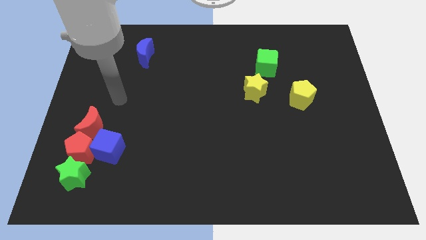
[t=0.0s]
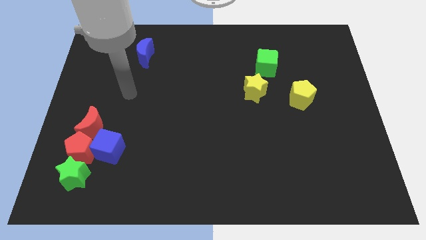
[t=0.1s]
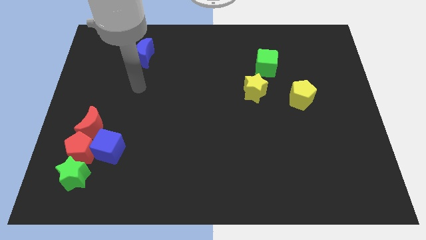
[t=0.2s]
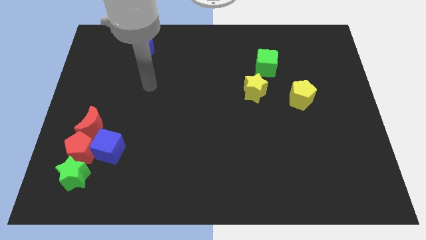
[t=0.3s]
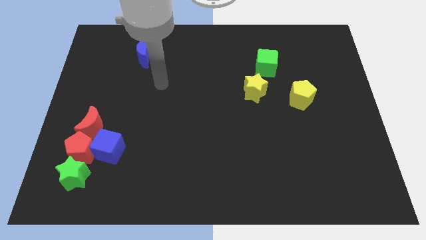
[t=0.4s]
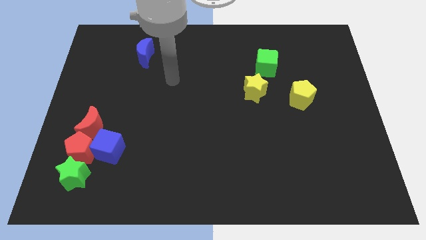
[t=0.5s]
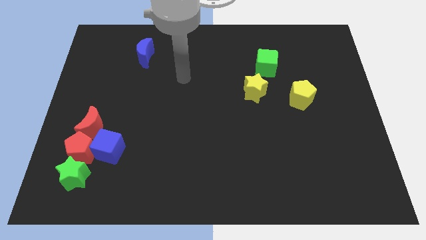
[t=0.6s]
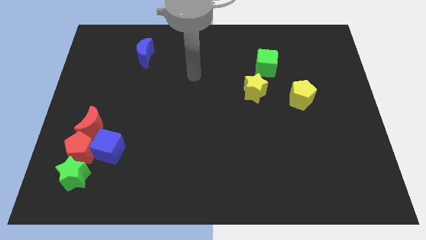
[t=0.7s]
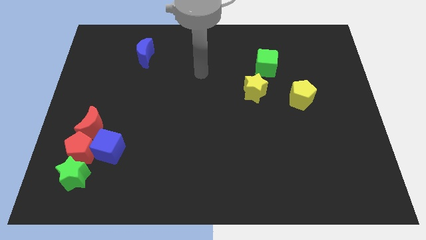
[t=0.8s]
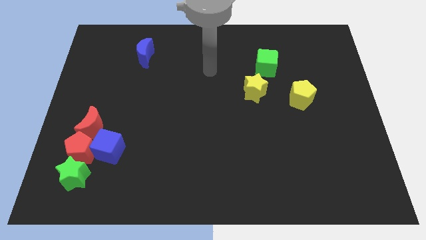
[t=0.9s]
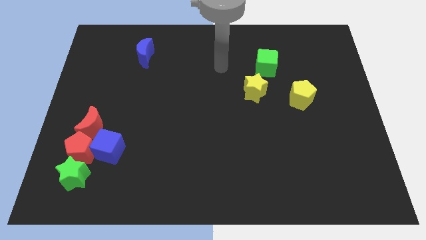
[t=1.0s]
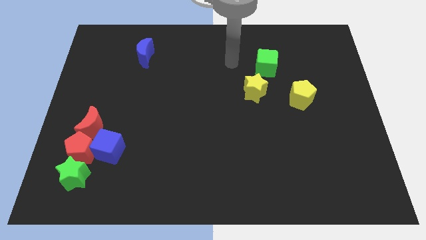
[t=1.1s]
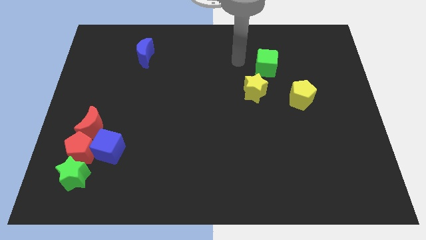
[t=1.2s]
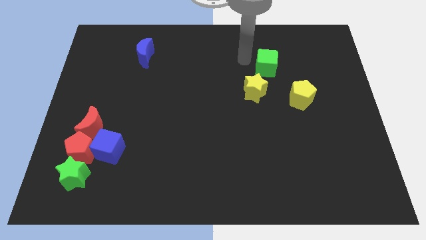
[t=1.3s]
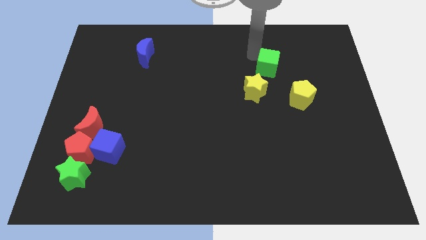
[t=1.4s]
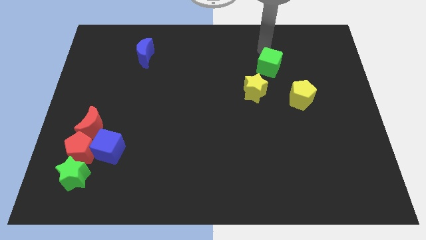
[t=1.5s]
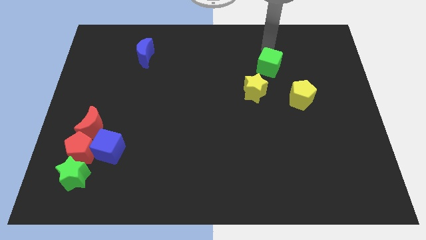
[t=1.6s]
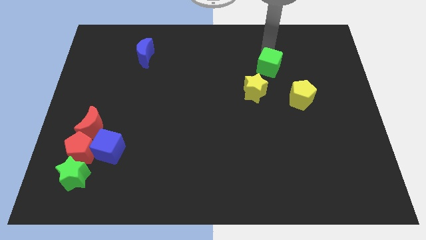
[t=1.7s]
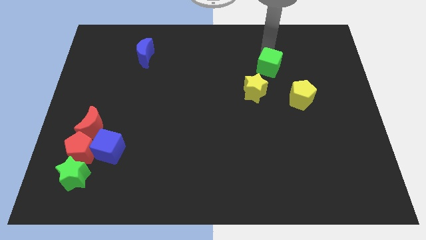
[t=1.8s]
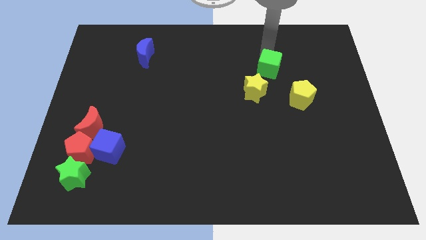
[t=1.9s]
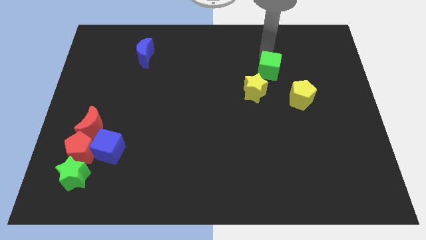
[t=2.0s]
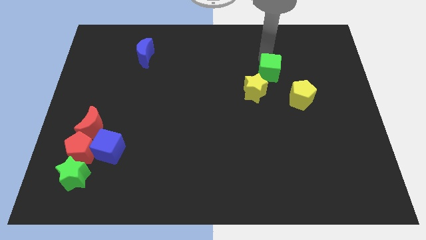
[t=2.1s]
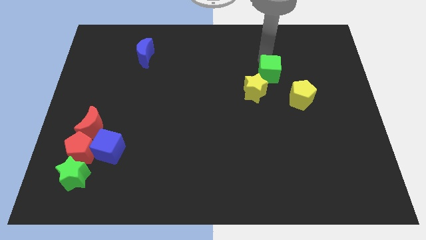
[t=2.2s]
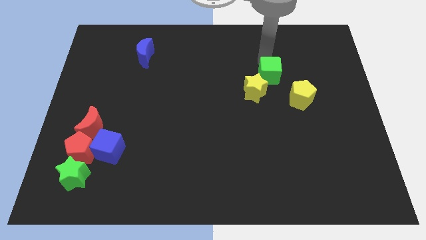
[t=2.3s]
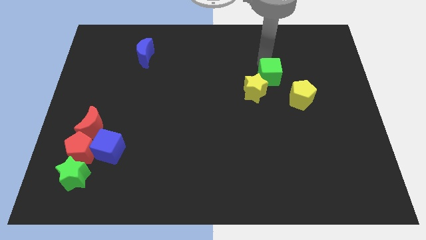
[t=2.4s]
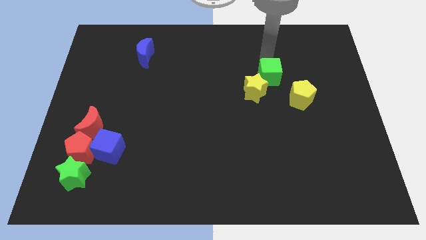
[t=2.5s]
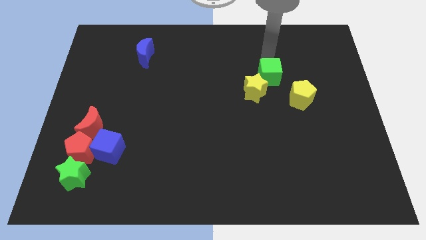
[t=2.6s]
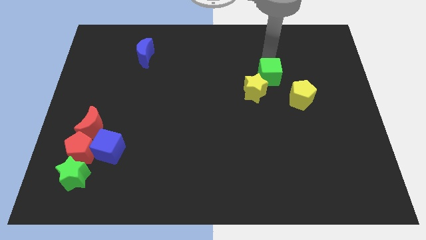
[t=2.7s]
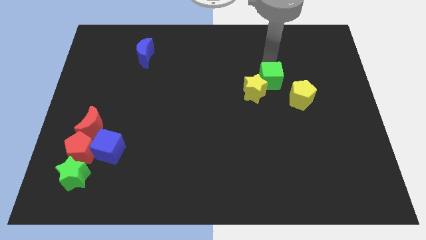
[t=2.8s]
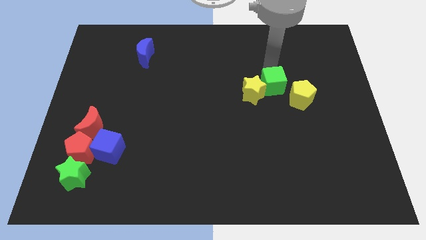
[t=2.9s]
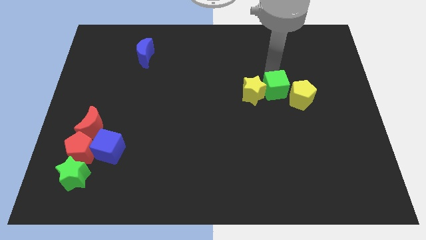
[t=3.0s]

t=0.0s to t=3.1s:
slide the green cube down a bit

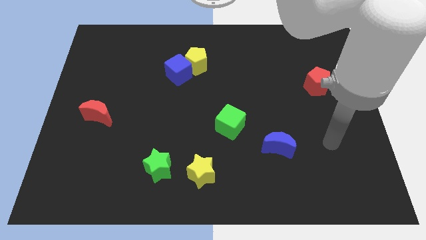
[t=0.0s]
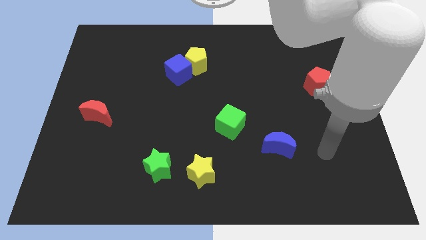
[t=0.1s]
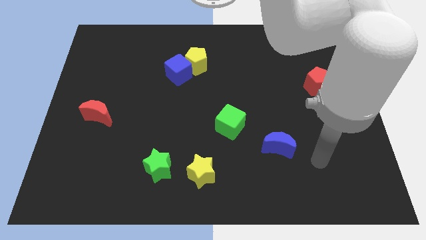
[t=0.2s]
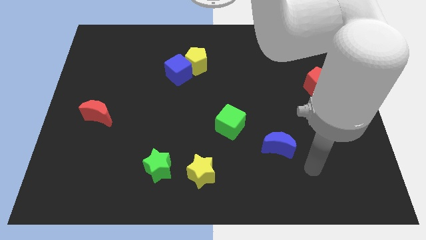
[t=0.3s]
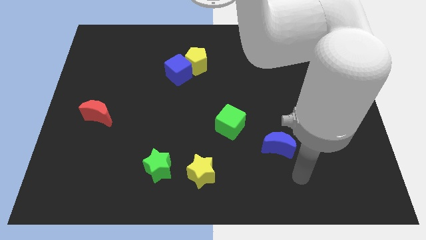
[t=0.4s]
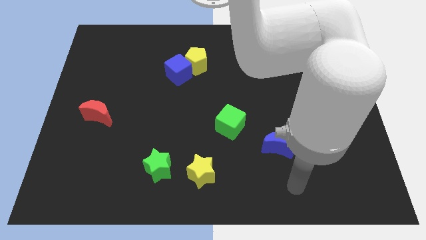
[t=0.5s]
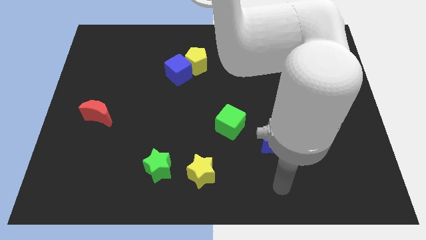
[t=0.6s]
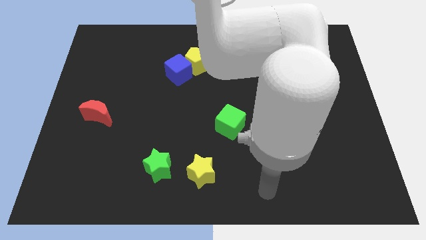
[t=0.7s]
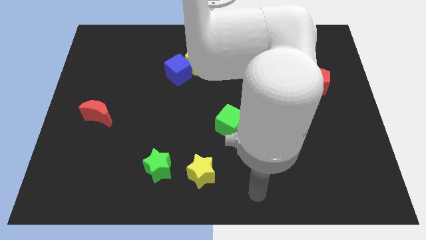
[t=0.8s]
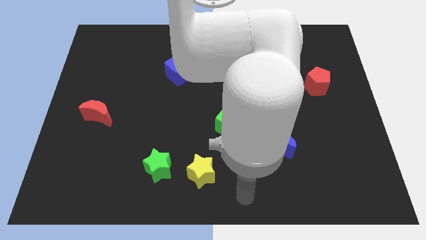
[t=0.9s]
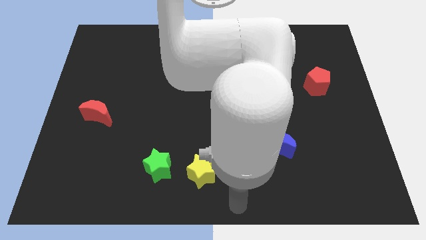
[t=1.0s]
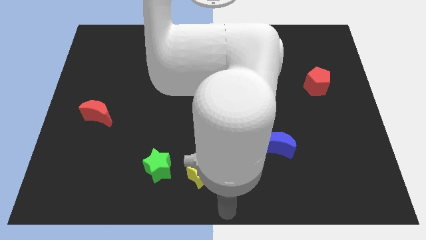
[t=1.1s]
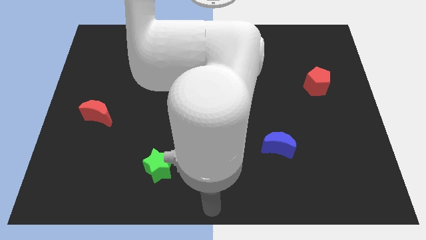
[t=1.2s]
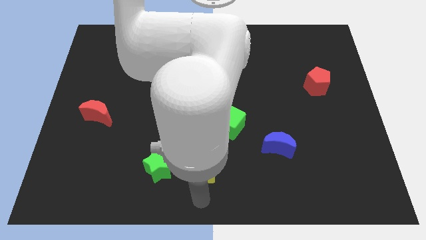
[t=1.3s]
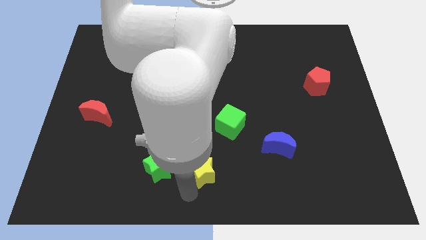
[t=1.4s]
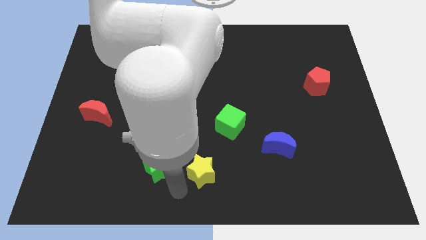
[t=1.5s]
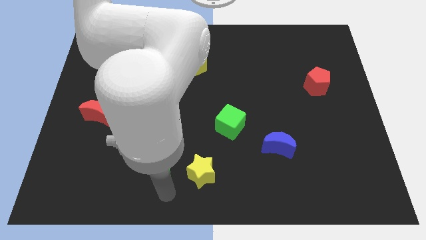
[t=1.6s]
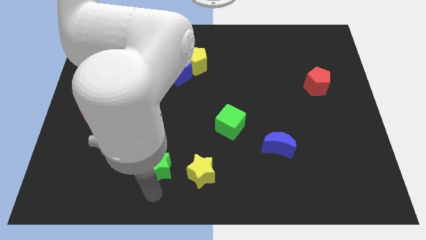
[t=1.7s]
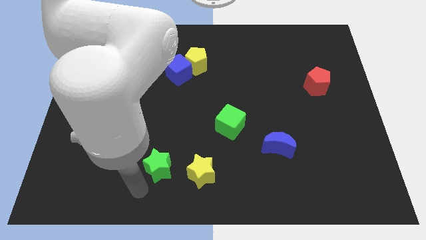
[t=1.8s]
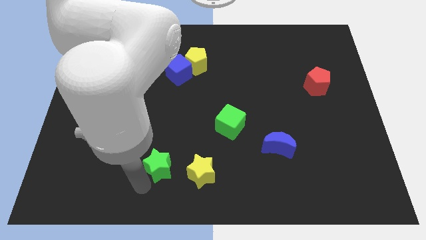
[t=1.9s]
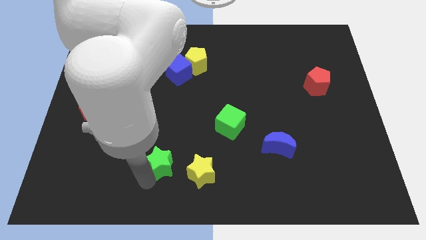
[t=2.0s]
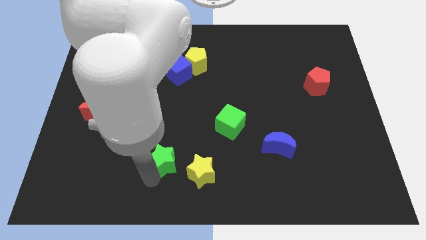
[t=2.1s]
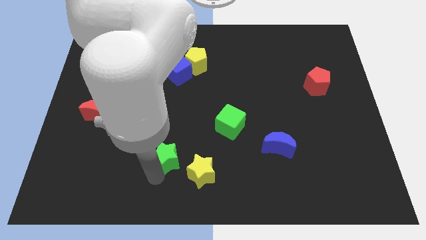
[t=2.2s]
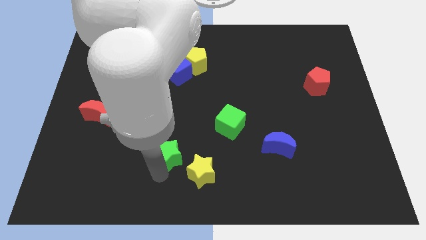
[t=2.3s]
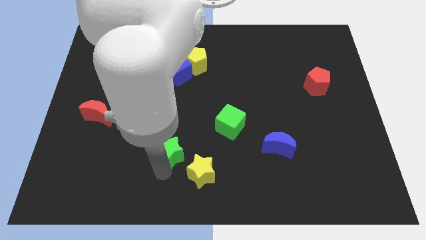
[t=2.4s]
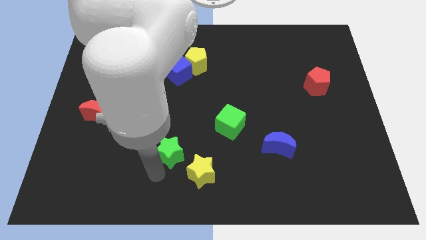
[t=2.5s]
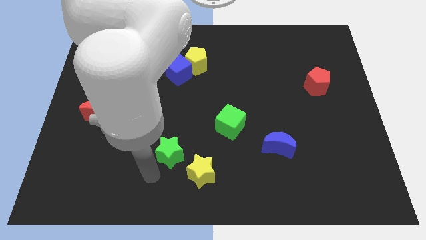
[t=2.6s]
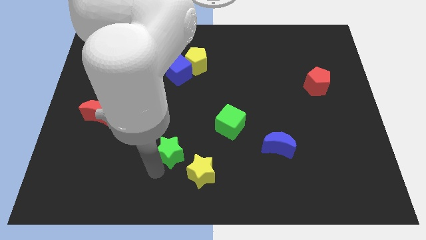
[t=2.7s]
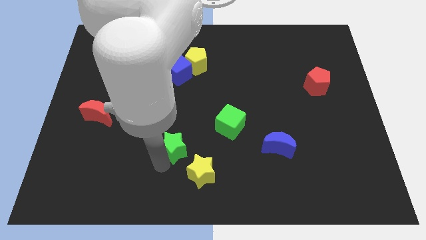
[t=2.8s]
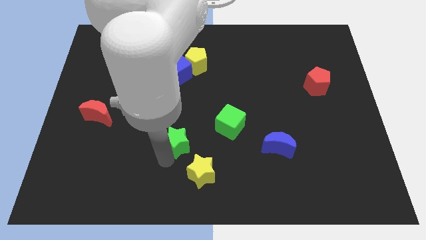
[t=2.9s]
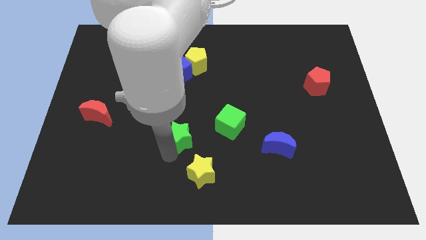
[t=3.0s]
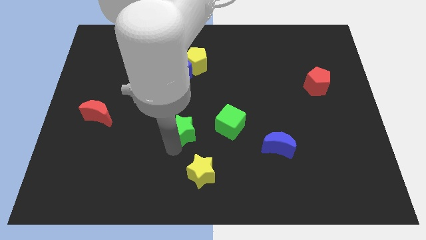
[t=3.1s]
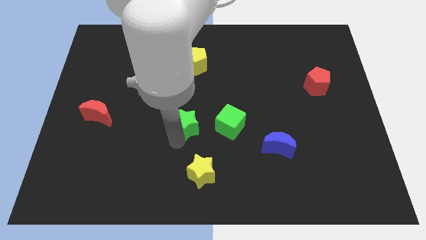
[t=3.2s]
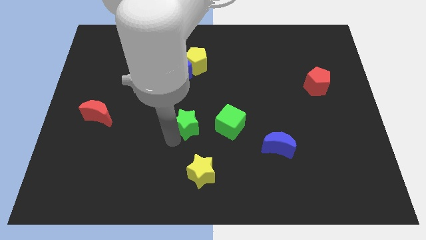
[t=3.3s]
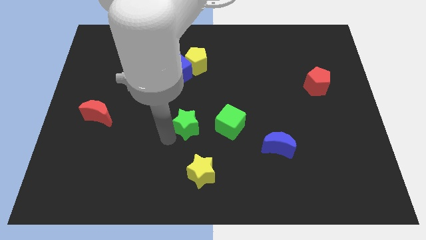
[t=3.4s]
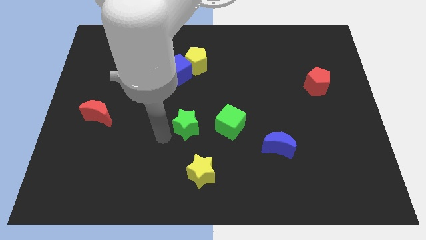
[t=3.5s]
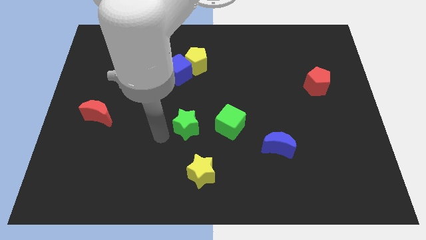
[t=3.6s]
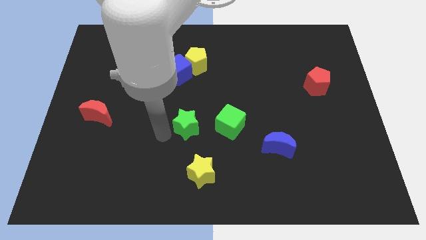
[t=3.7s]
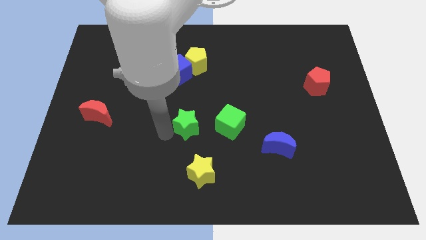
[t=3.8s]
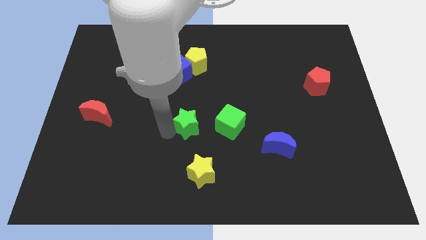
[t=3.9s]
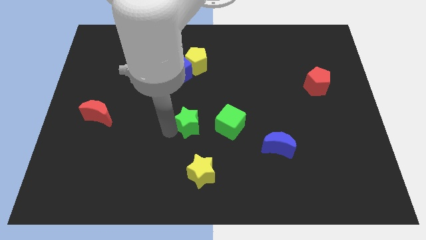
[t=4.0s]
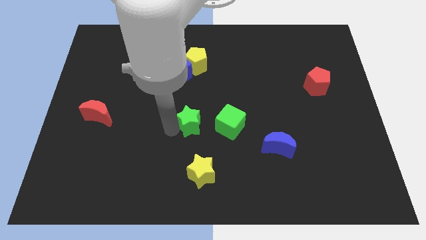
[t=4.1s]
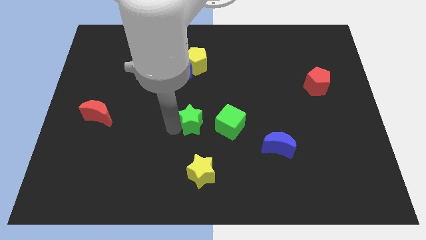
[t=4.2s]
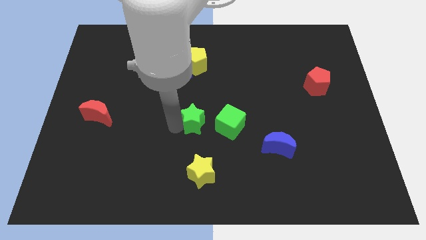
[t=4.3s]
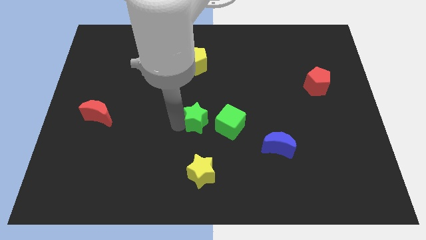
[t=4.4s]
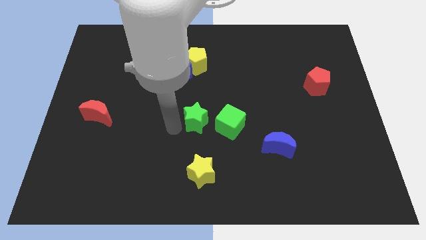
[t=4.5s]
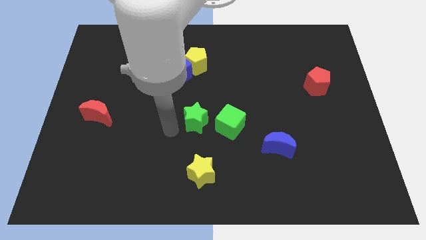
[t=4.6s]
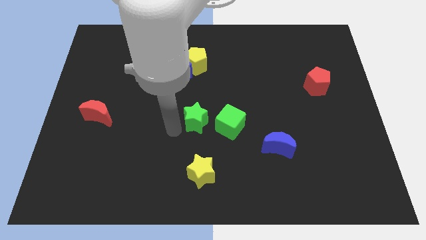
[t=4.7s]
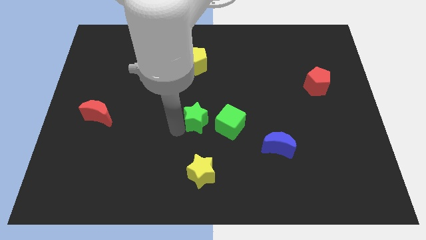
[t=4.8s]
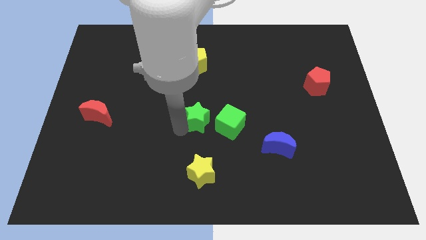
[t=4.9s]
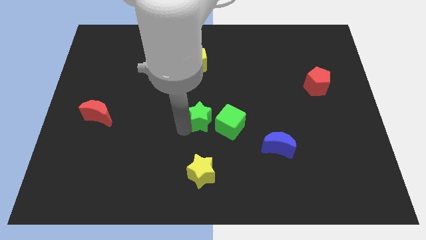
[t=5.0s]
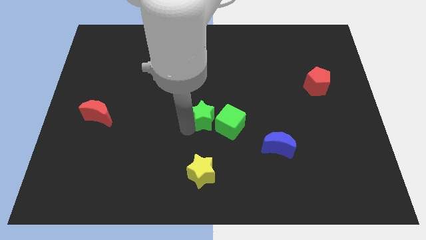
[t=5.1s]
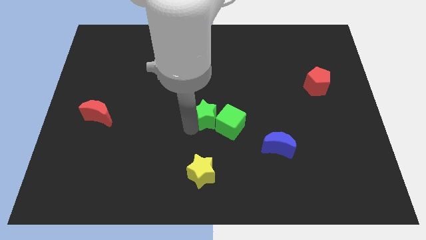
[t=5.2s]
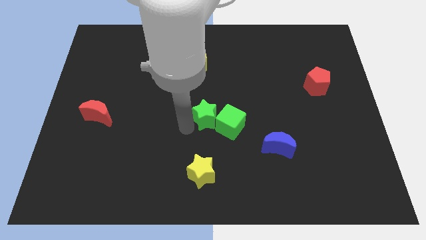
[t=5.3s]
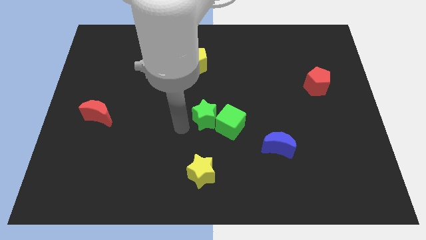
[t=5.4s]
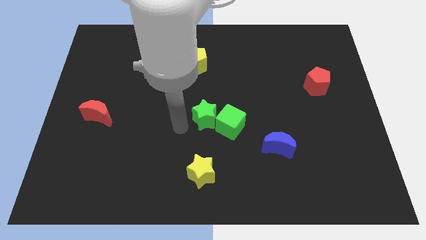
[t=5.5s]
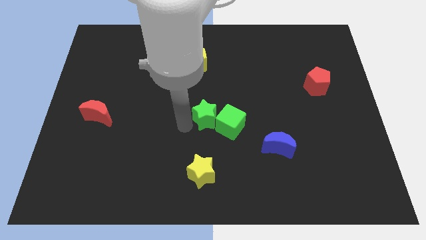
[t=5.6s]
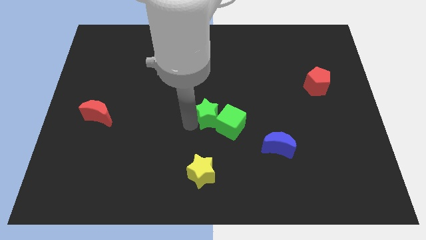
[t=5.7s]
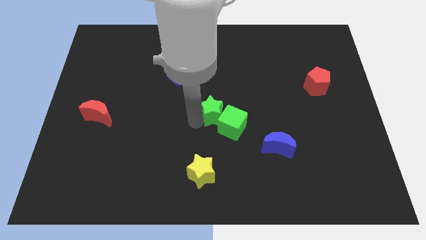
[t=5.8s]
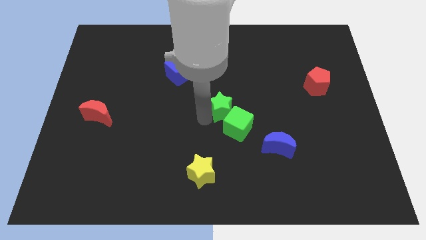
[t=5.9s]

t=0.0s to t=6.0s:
push the green star upwards and then right
